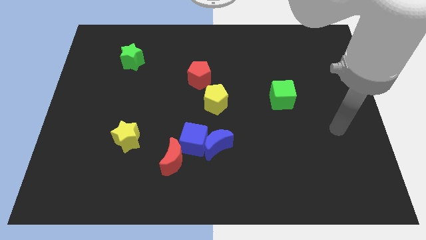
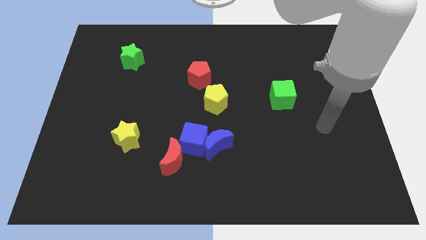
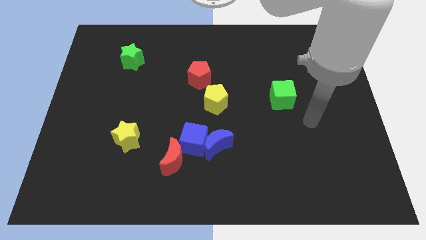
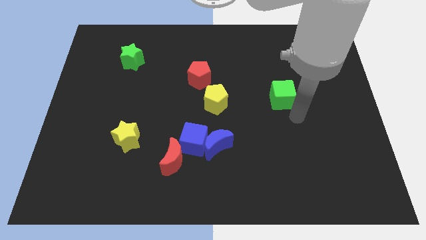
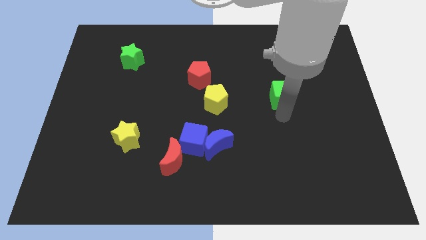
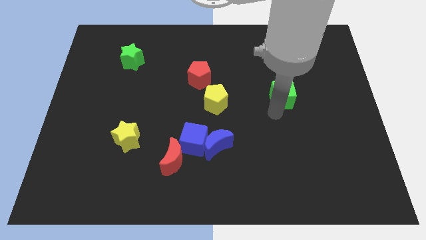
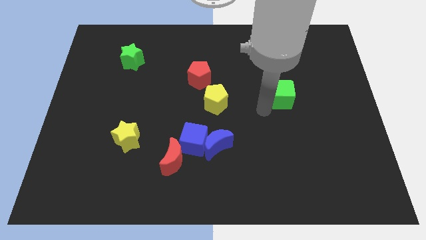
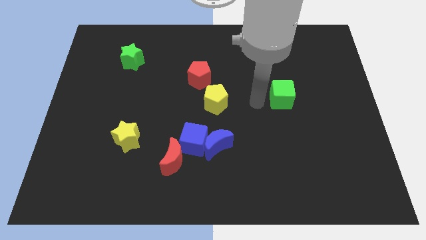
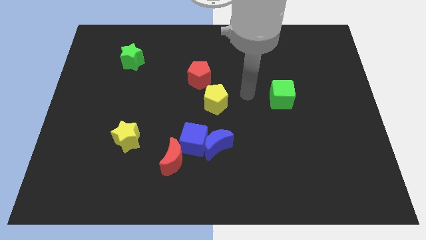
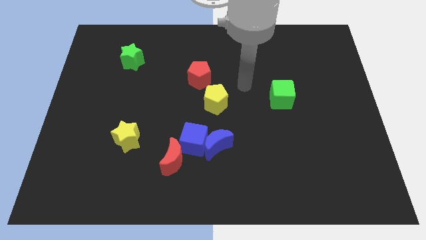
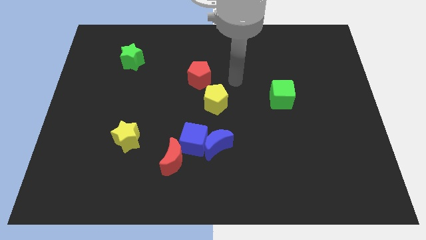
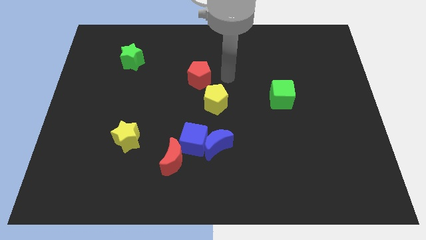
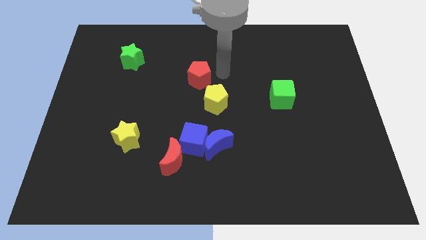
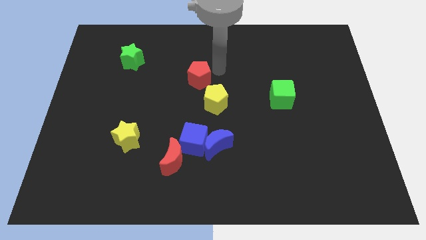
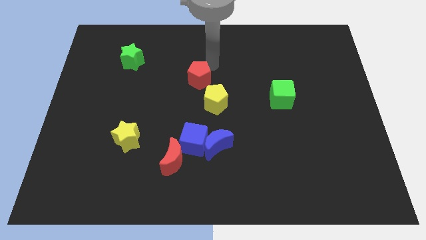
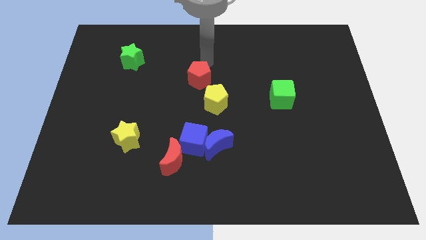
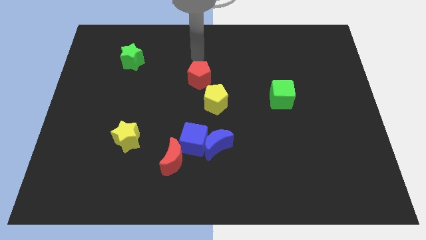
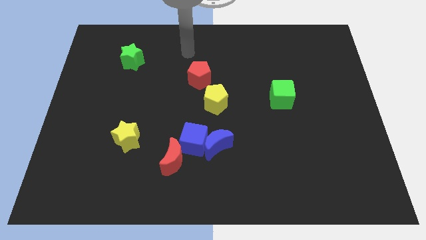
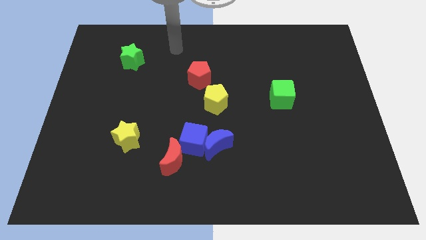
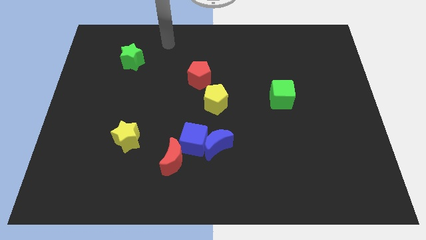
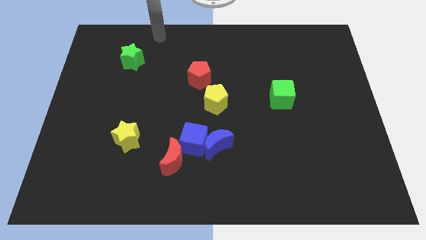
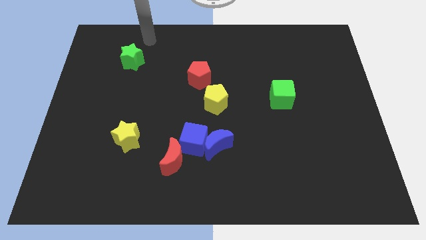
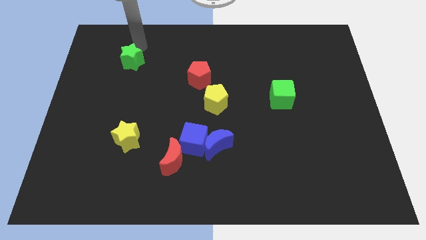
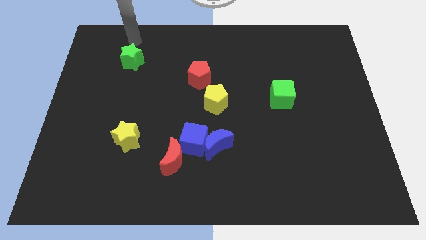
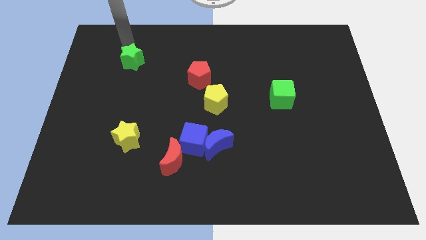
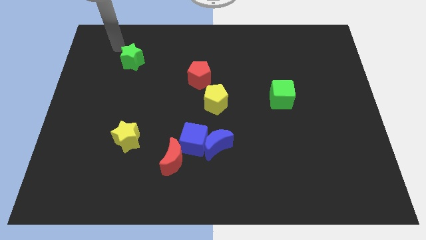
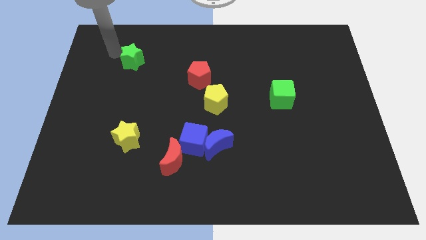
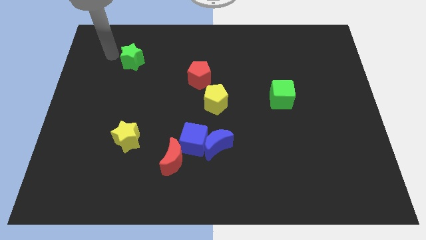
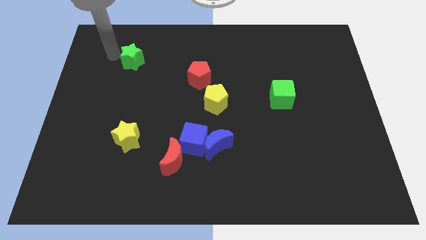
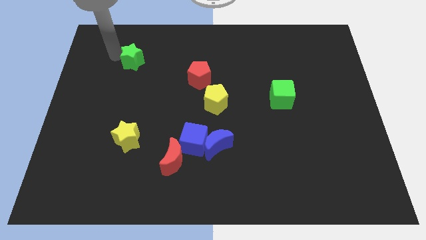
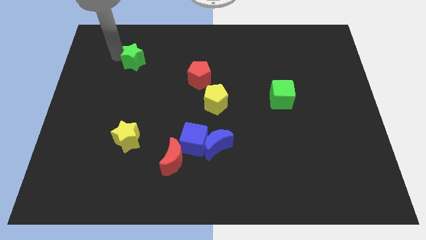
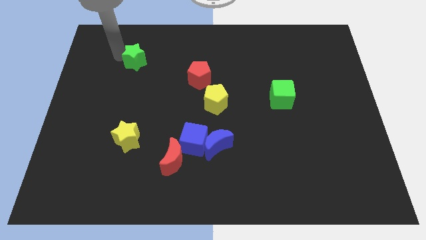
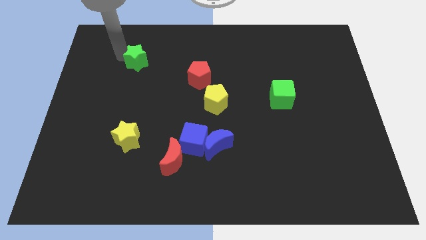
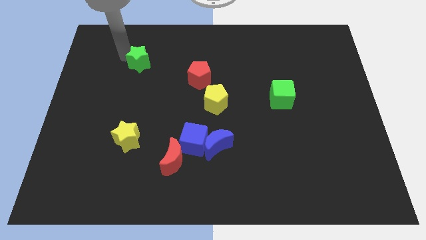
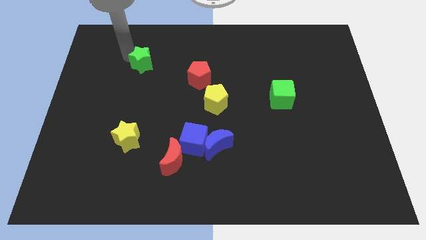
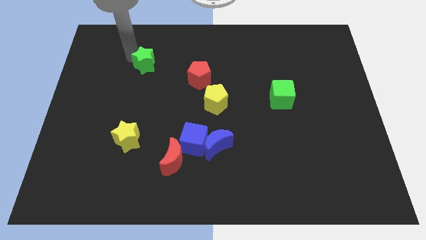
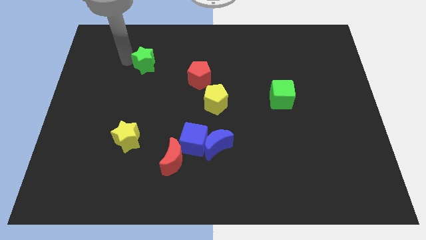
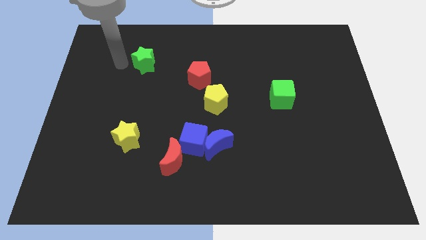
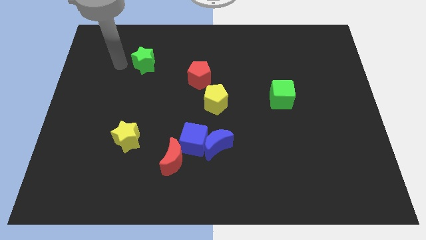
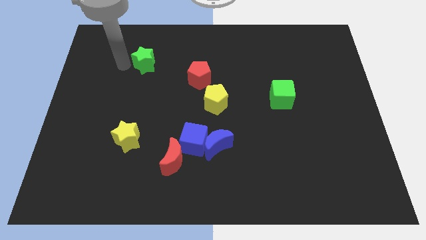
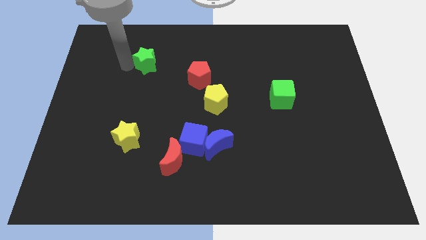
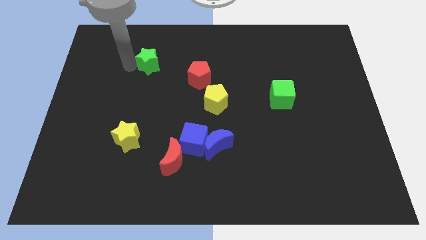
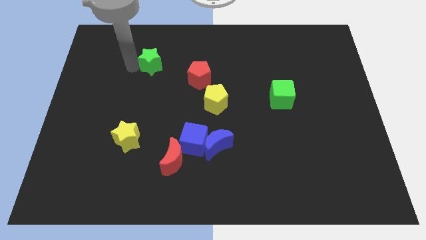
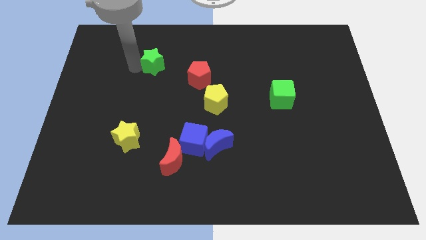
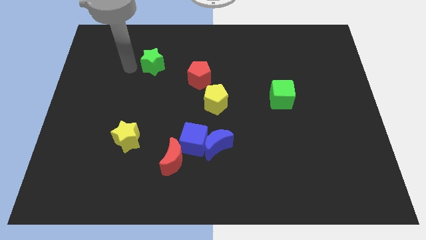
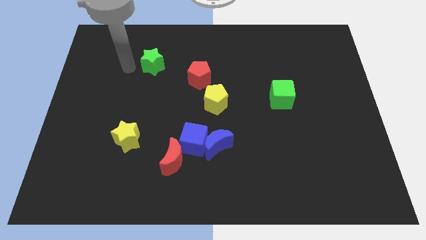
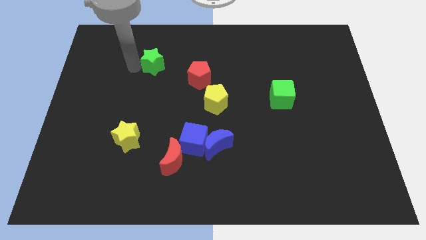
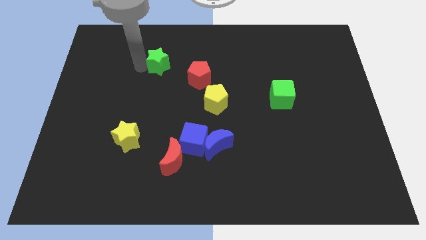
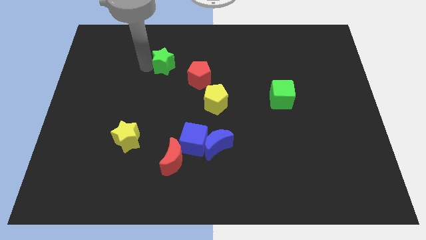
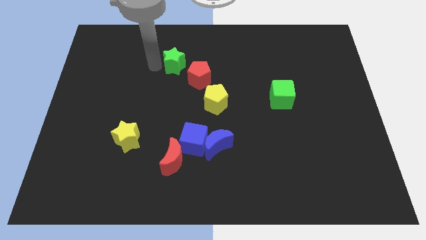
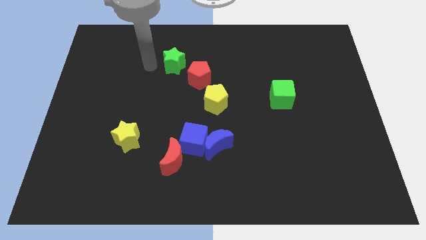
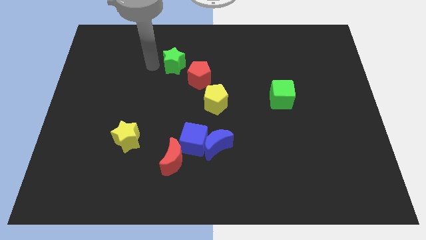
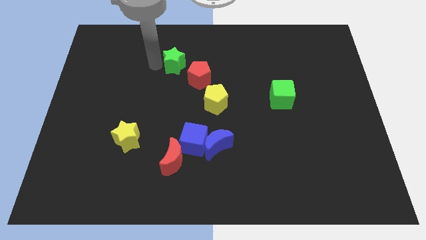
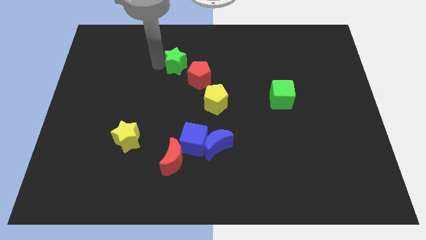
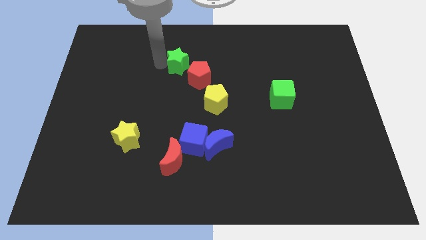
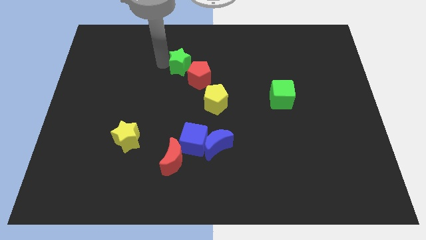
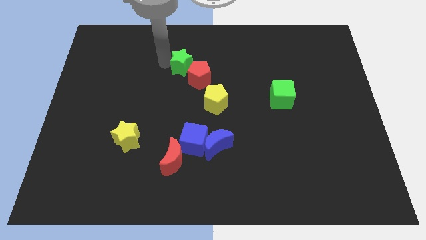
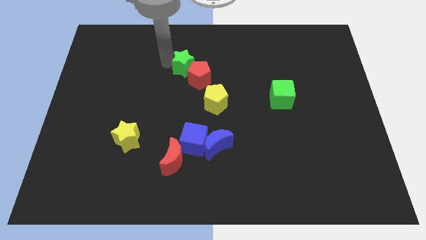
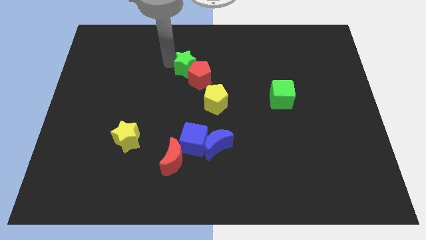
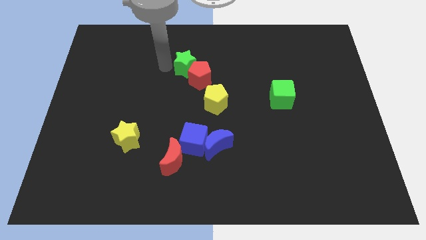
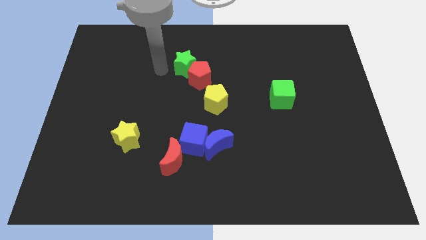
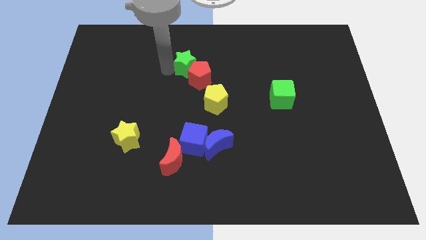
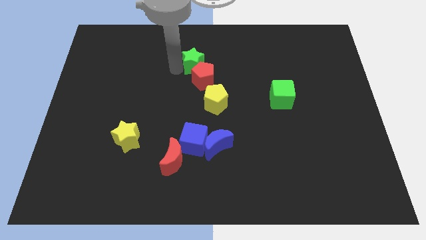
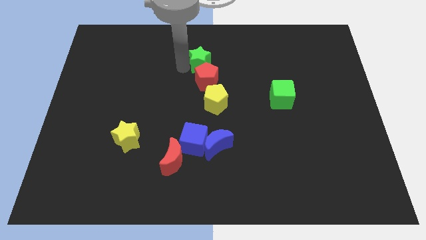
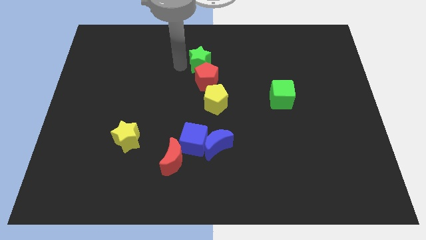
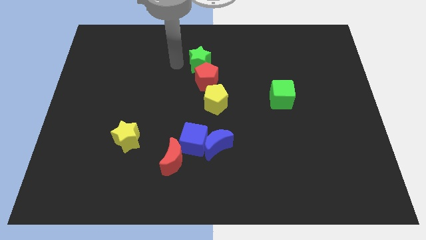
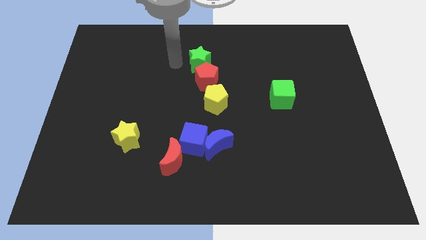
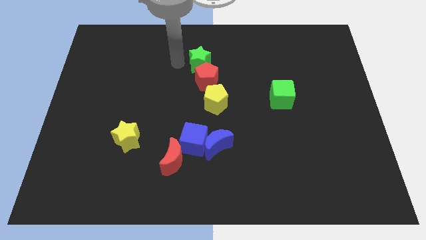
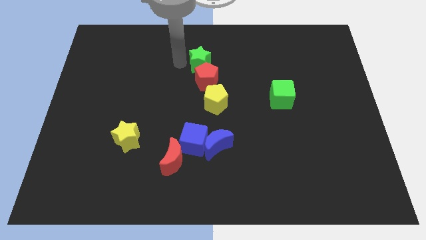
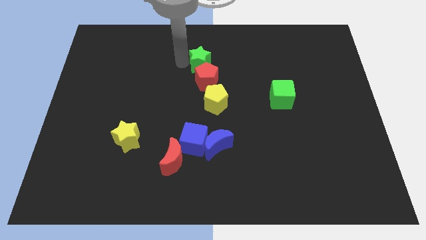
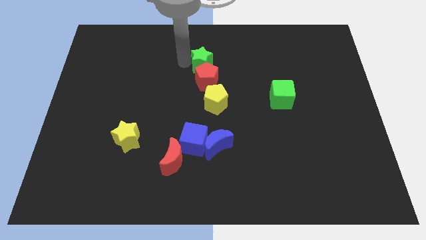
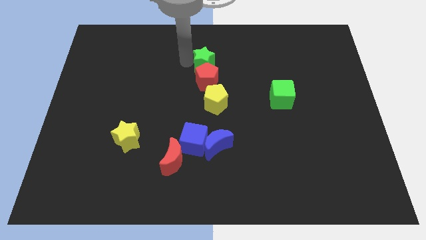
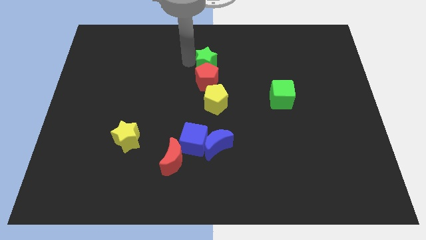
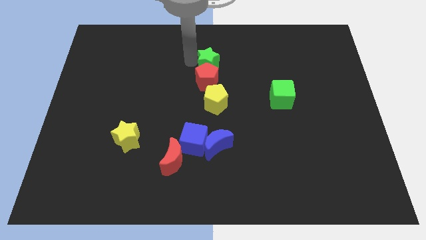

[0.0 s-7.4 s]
slide the green star right

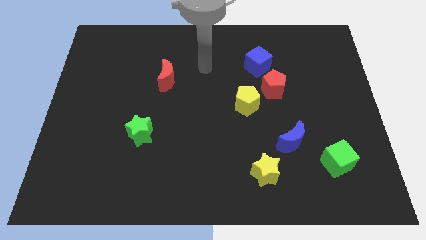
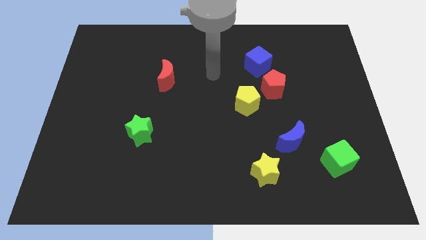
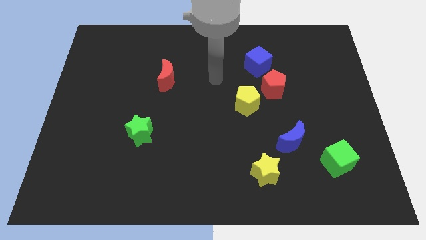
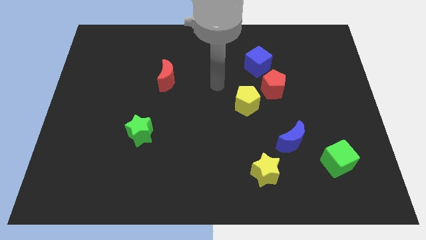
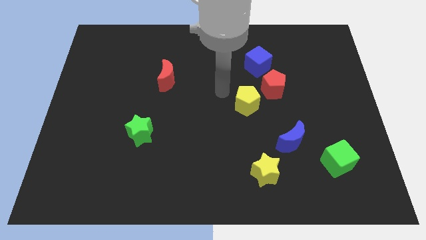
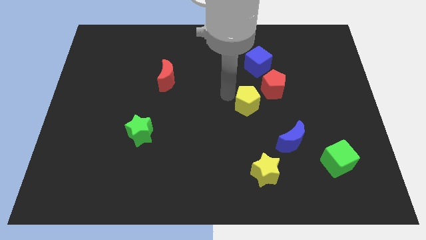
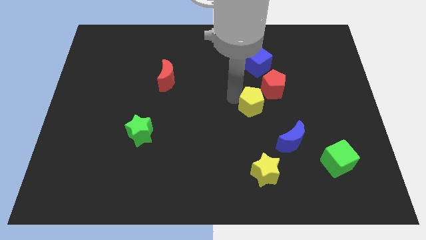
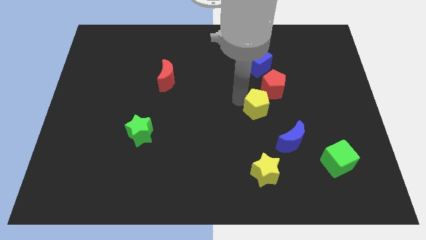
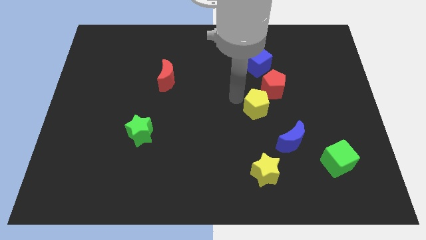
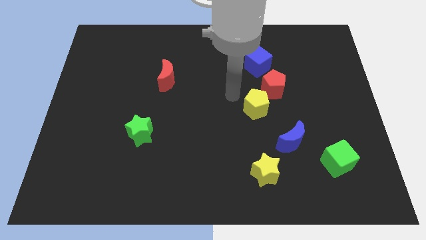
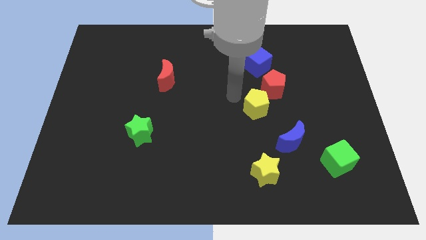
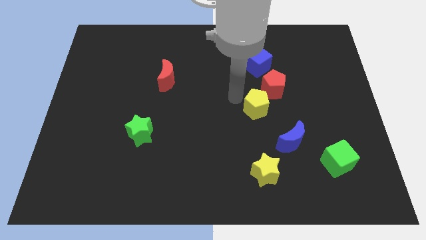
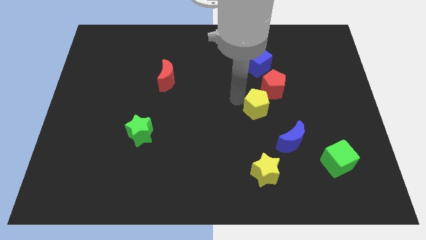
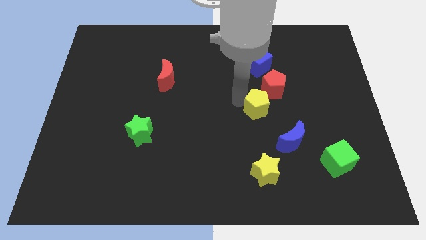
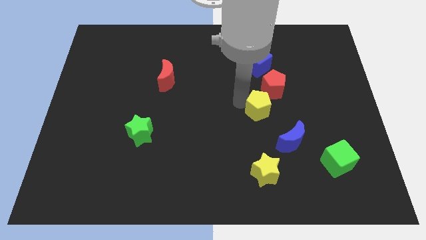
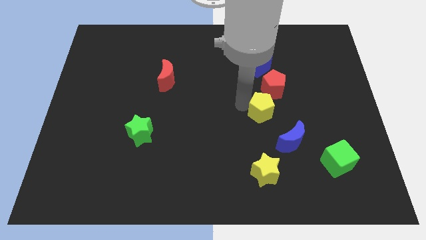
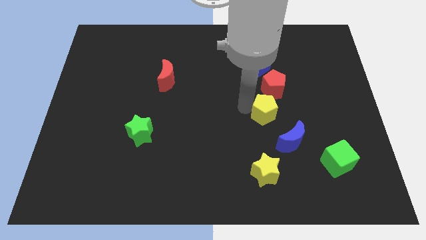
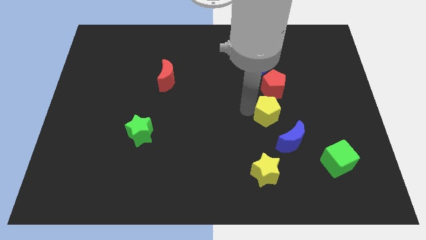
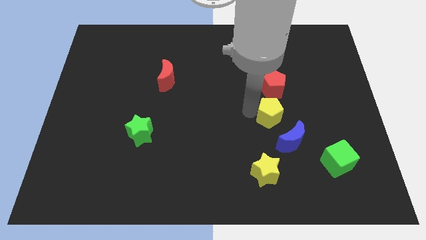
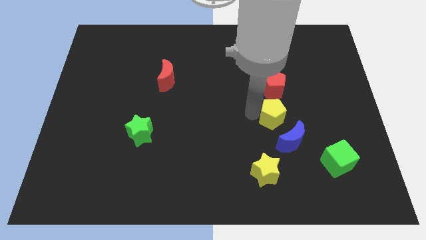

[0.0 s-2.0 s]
slide the yellow pentagon downwards and then to the right slightly
